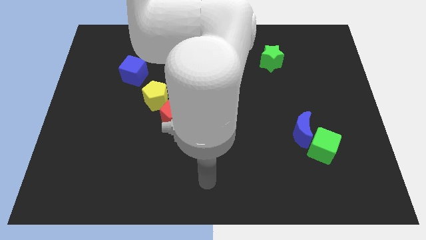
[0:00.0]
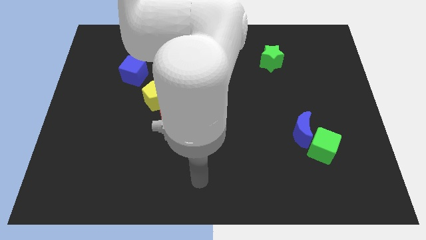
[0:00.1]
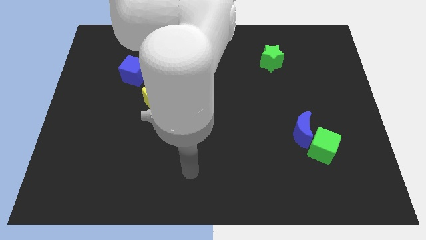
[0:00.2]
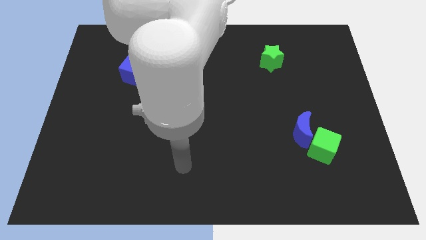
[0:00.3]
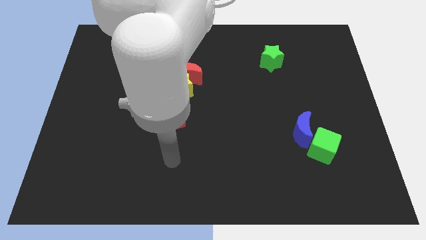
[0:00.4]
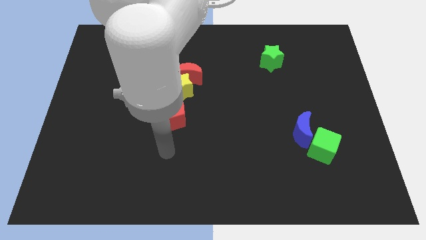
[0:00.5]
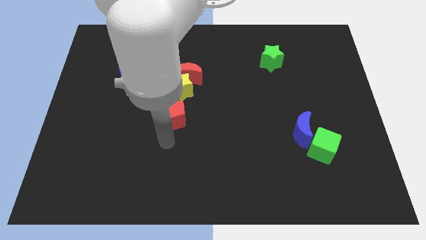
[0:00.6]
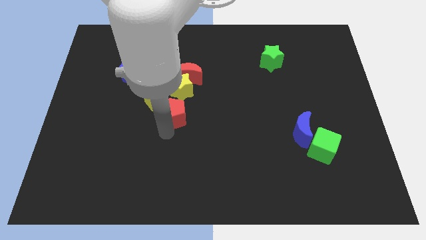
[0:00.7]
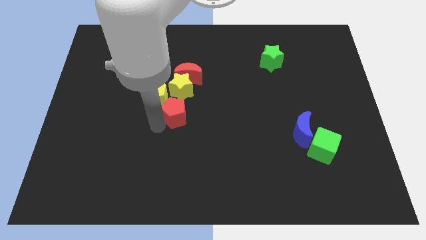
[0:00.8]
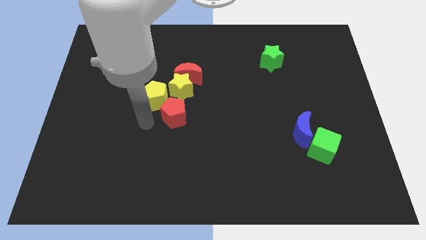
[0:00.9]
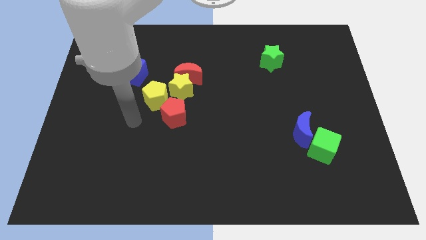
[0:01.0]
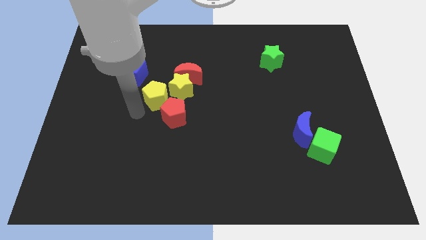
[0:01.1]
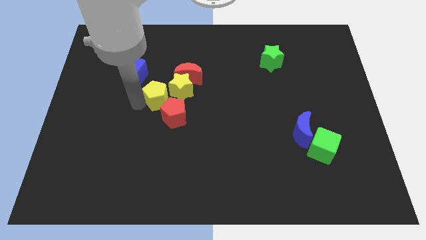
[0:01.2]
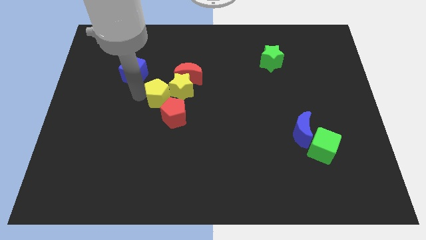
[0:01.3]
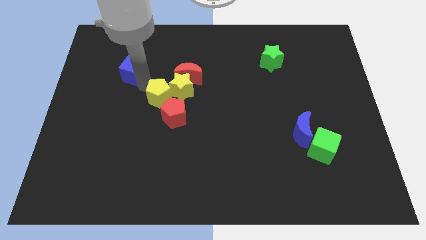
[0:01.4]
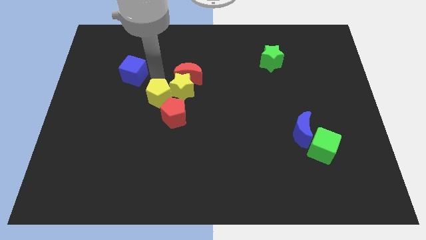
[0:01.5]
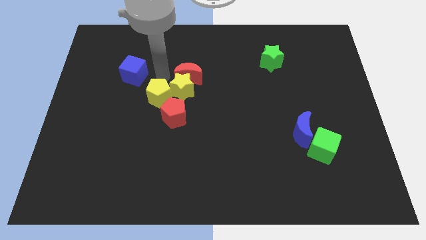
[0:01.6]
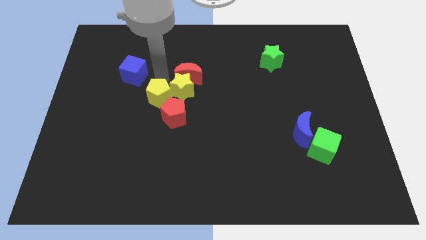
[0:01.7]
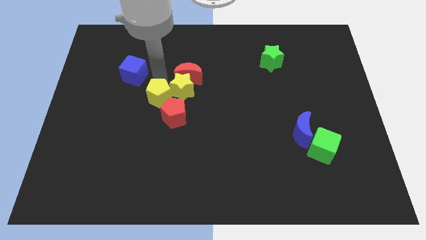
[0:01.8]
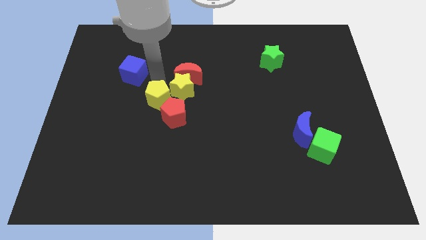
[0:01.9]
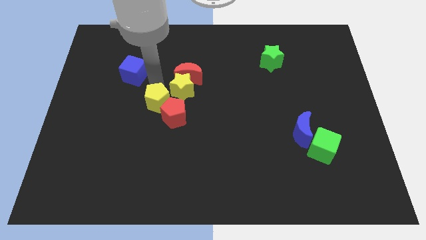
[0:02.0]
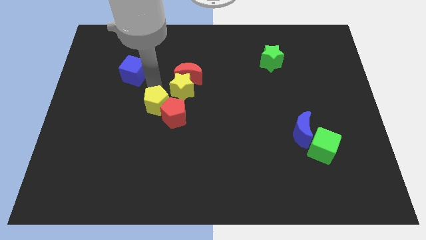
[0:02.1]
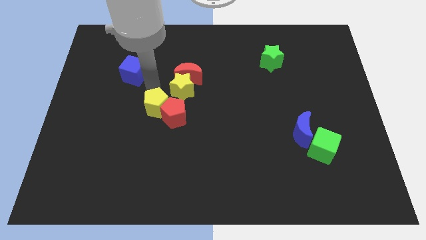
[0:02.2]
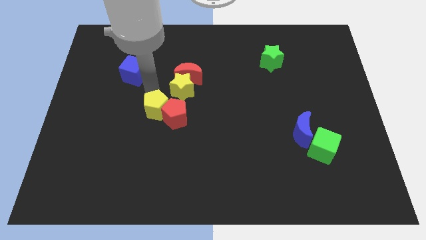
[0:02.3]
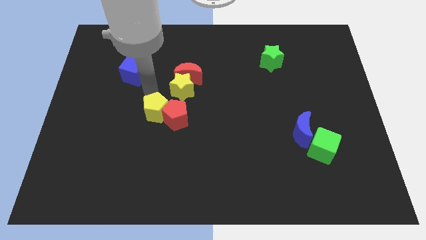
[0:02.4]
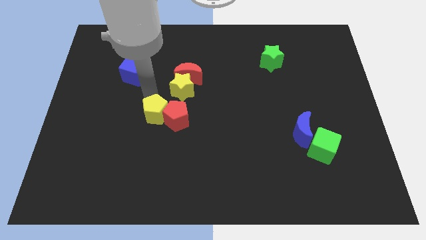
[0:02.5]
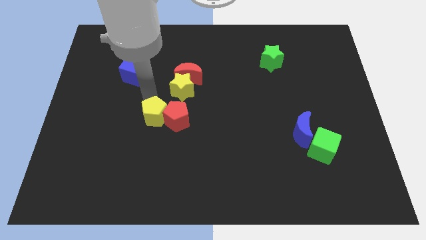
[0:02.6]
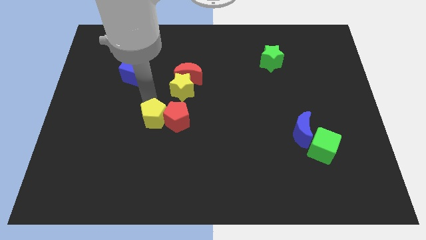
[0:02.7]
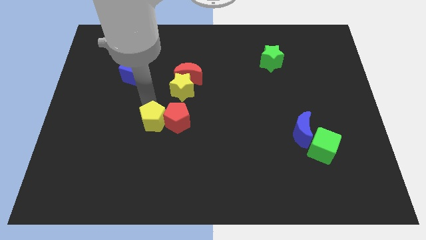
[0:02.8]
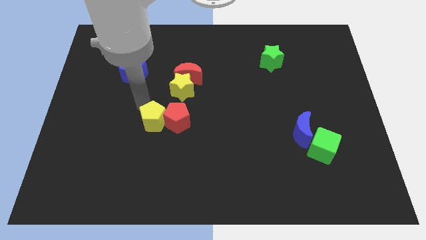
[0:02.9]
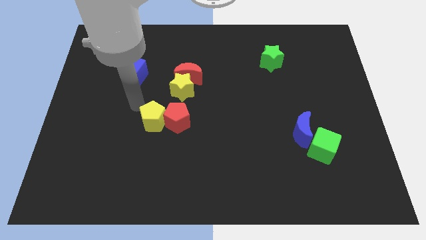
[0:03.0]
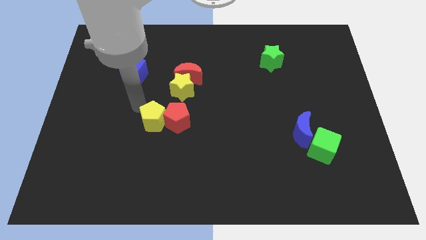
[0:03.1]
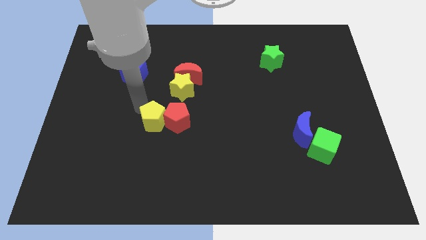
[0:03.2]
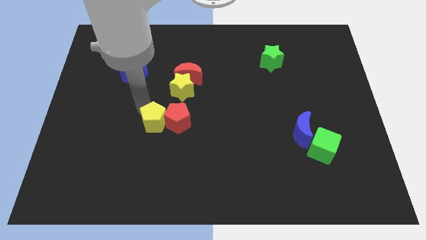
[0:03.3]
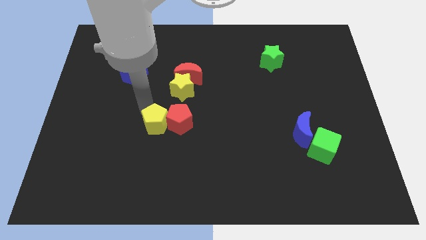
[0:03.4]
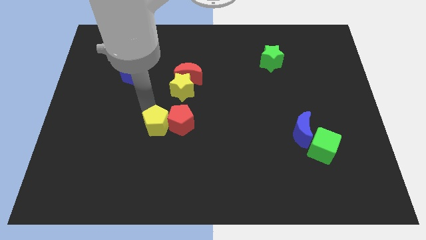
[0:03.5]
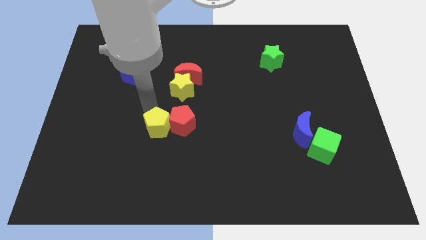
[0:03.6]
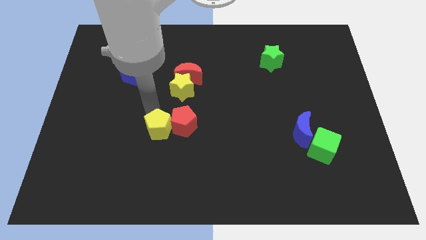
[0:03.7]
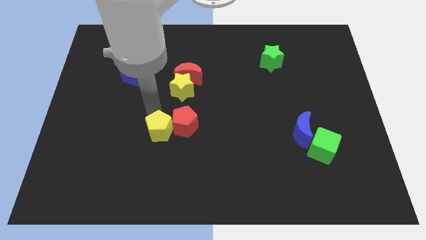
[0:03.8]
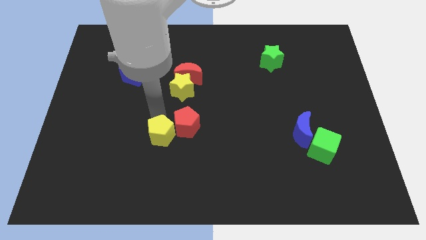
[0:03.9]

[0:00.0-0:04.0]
push the yellow pentagon diagonally downwards and right slightly

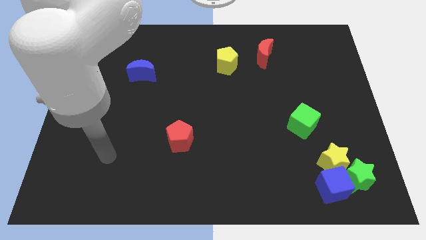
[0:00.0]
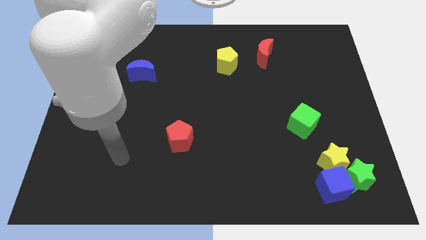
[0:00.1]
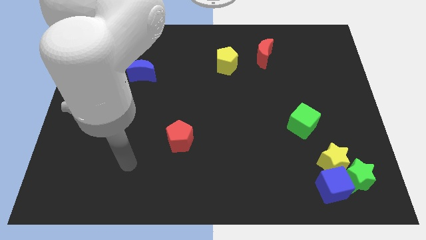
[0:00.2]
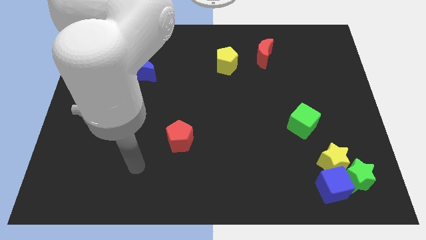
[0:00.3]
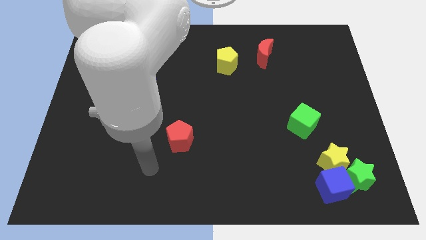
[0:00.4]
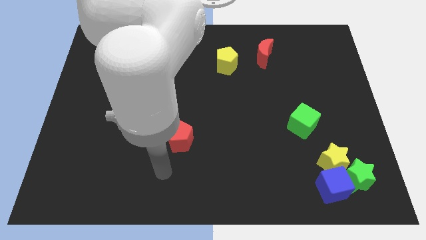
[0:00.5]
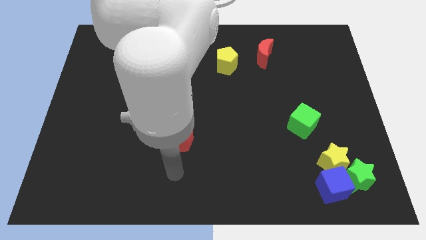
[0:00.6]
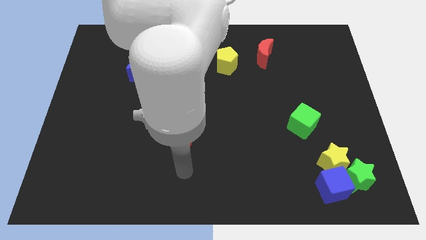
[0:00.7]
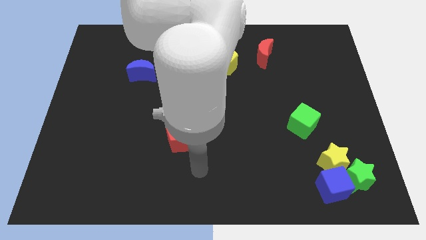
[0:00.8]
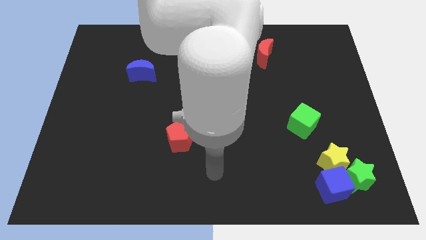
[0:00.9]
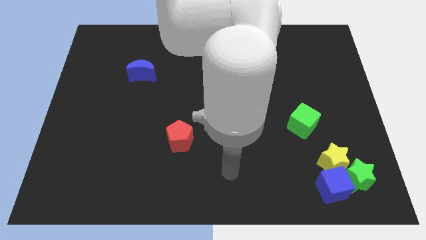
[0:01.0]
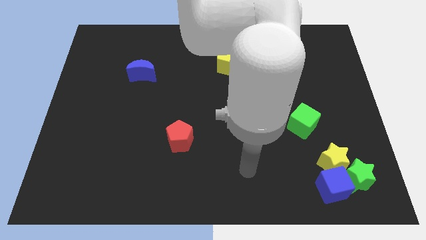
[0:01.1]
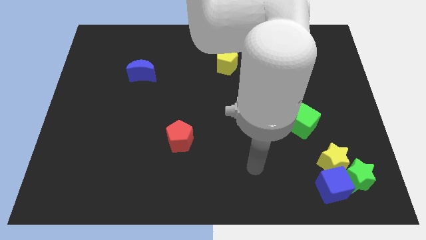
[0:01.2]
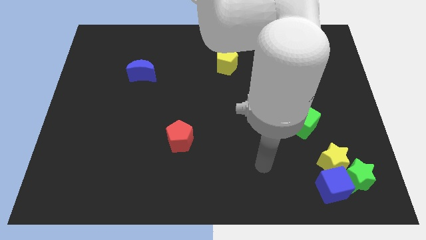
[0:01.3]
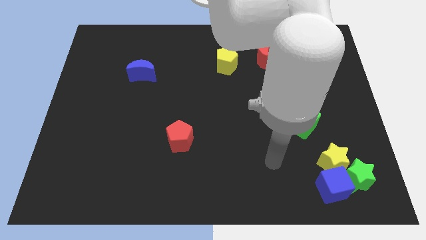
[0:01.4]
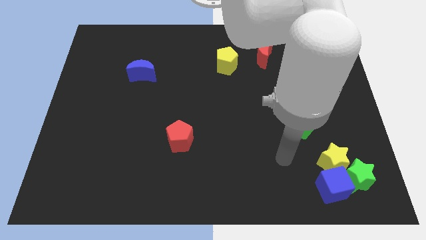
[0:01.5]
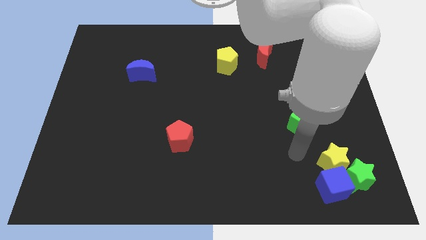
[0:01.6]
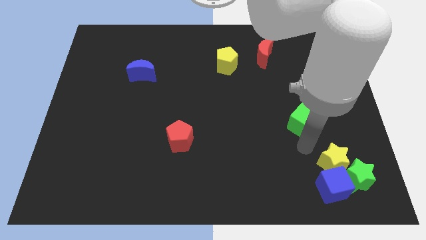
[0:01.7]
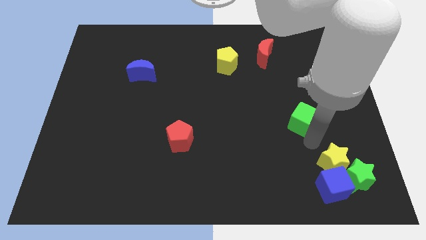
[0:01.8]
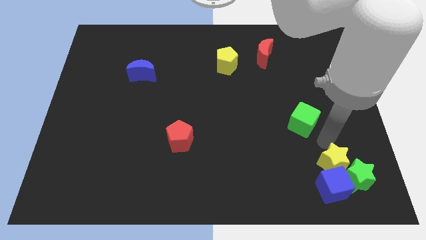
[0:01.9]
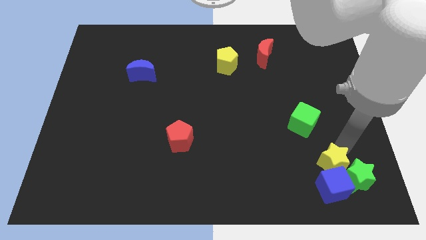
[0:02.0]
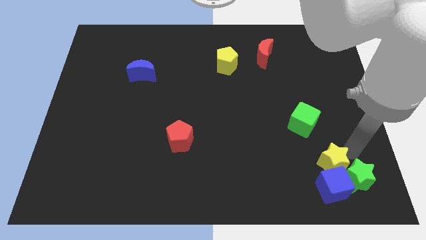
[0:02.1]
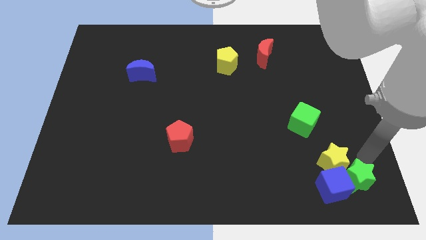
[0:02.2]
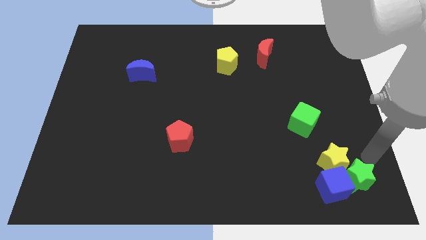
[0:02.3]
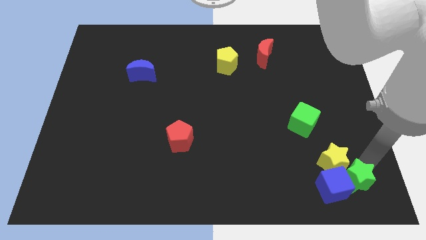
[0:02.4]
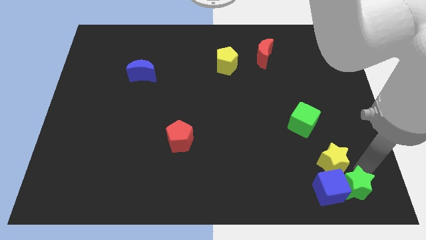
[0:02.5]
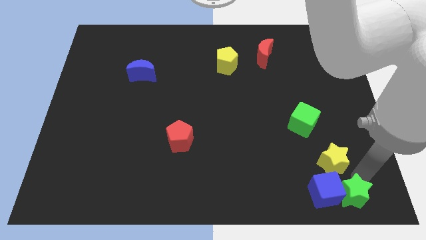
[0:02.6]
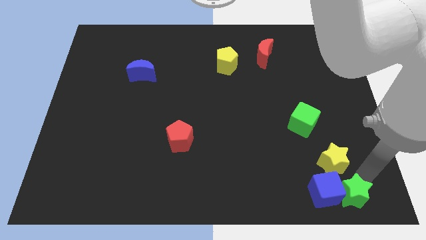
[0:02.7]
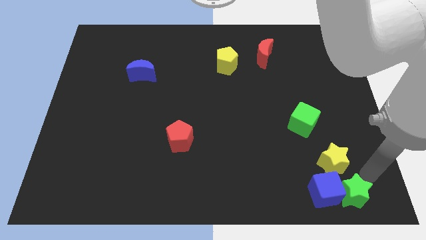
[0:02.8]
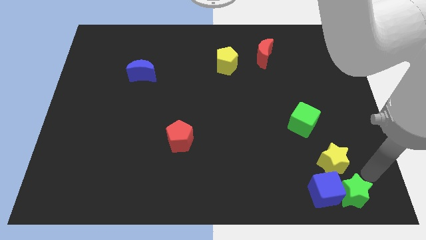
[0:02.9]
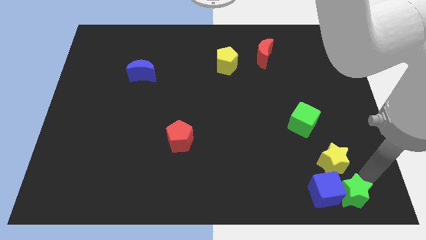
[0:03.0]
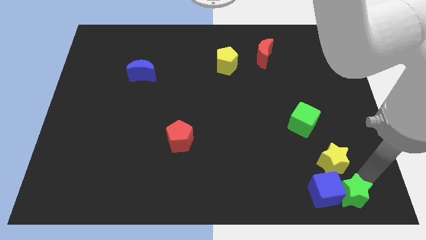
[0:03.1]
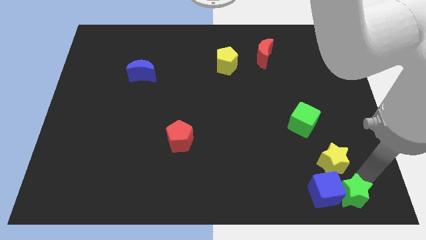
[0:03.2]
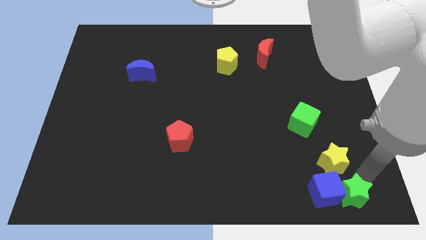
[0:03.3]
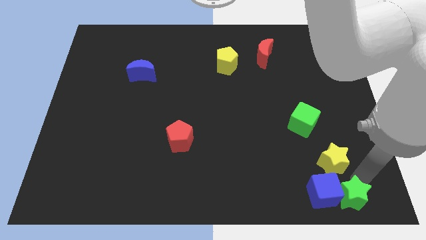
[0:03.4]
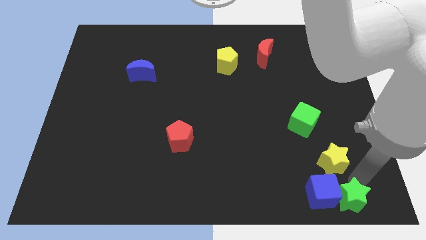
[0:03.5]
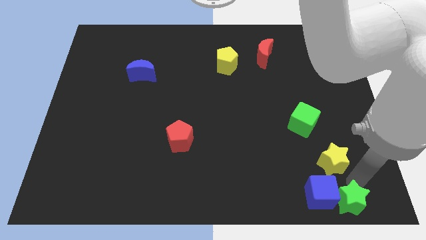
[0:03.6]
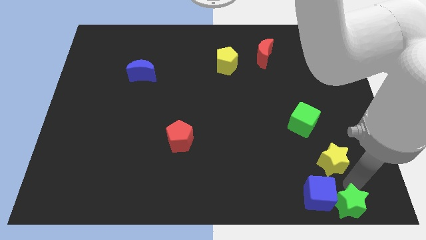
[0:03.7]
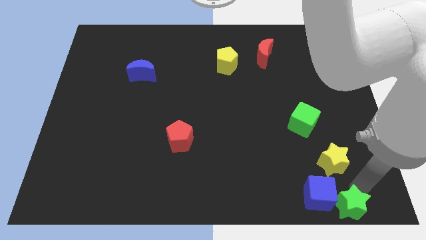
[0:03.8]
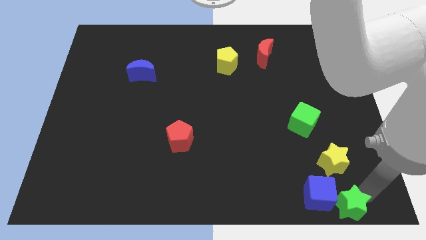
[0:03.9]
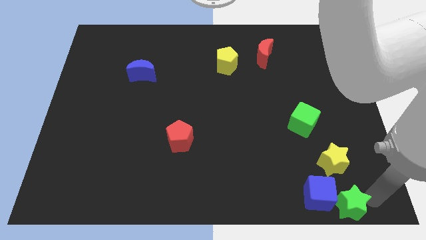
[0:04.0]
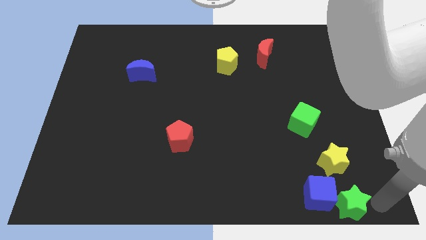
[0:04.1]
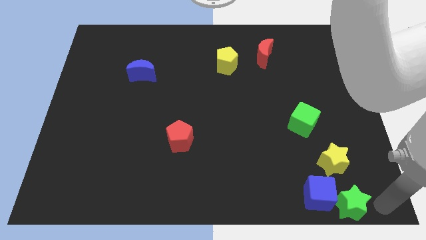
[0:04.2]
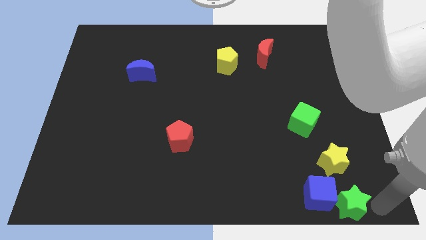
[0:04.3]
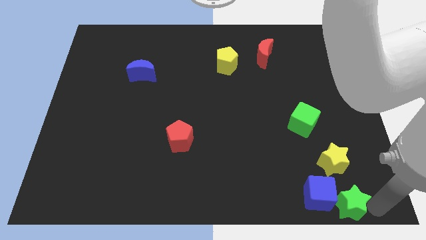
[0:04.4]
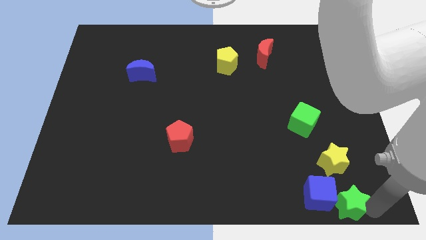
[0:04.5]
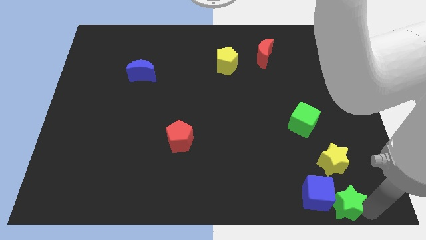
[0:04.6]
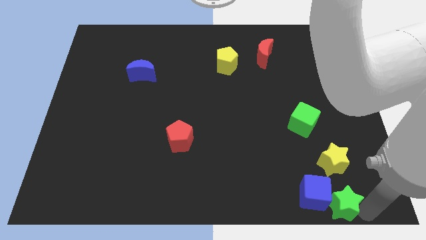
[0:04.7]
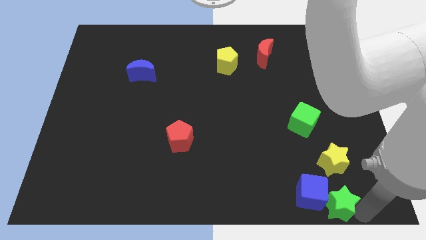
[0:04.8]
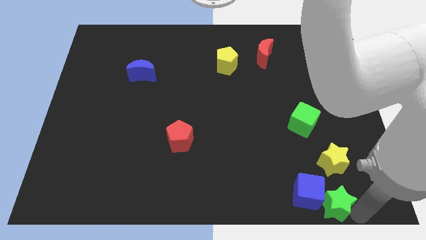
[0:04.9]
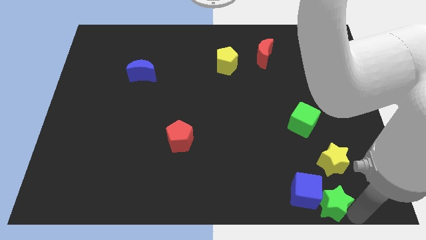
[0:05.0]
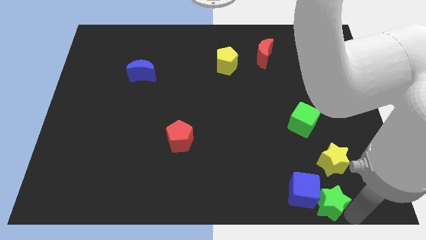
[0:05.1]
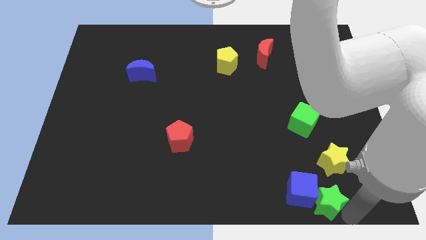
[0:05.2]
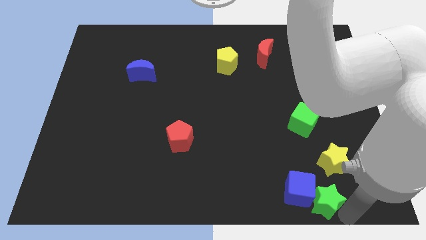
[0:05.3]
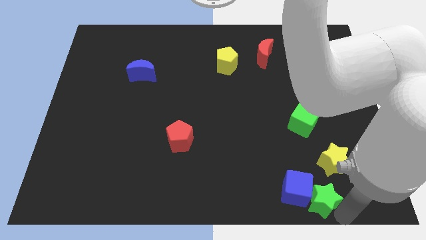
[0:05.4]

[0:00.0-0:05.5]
move the green star left a little bit
